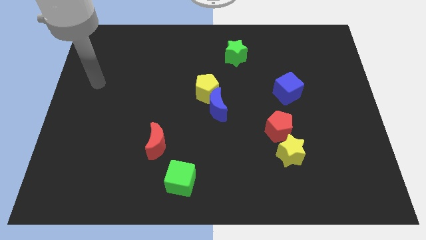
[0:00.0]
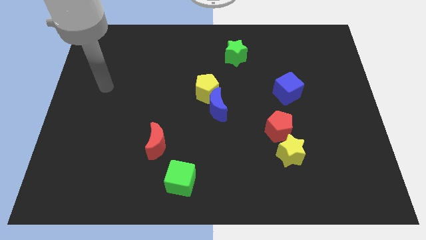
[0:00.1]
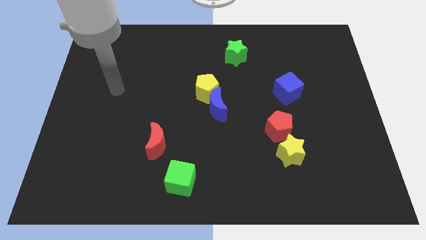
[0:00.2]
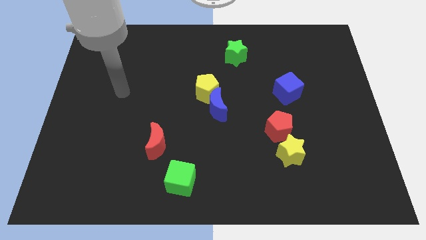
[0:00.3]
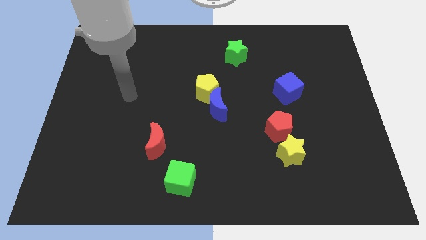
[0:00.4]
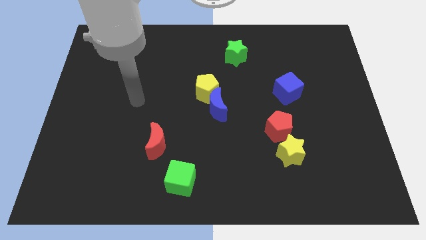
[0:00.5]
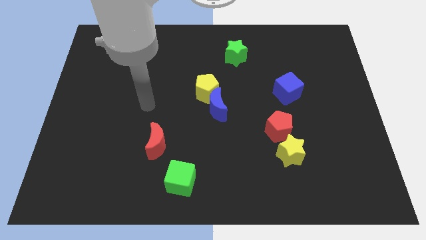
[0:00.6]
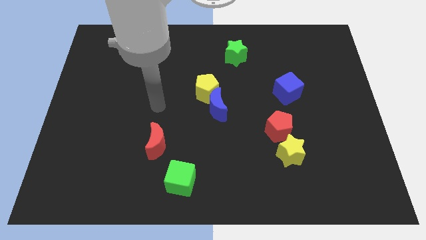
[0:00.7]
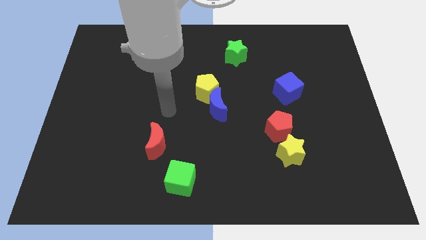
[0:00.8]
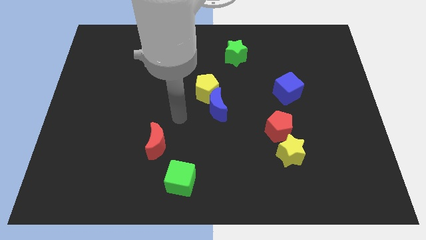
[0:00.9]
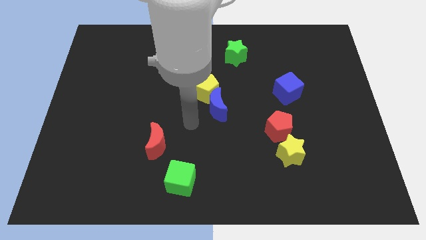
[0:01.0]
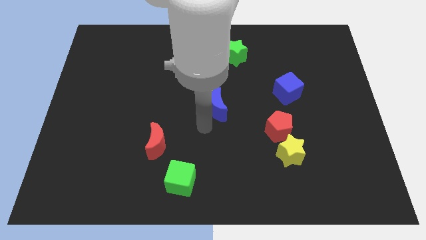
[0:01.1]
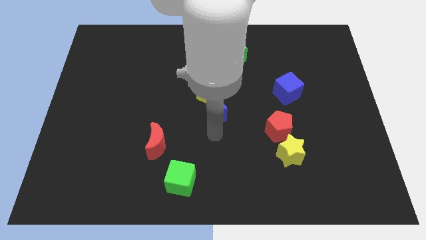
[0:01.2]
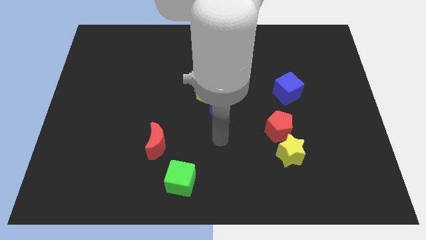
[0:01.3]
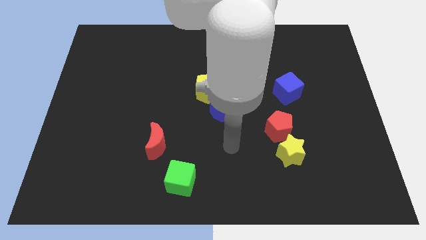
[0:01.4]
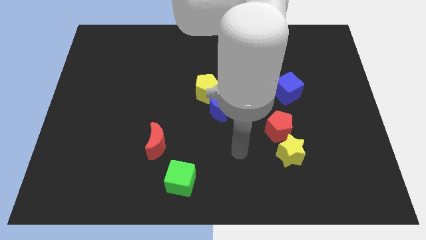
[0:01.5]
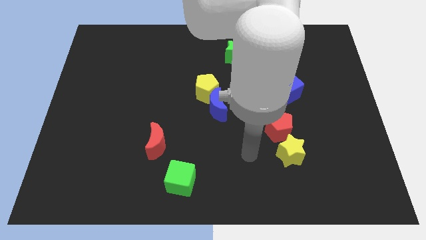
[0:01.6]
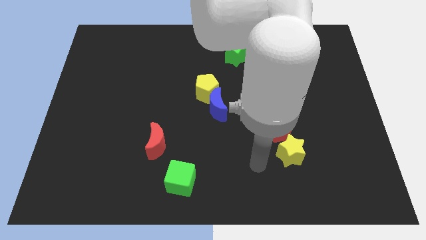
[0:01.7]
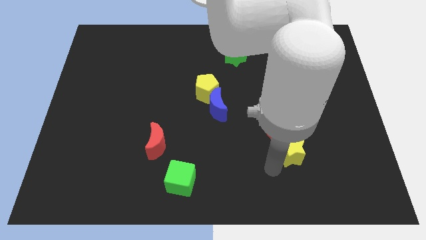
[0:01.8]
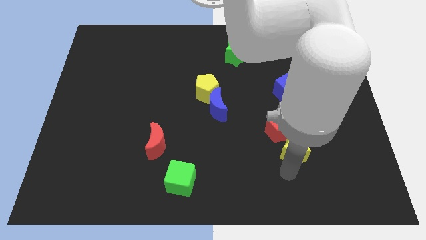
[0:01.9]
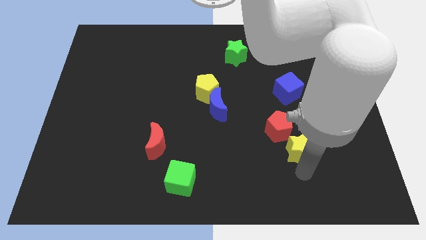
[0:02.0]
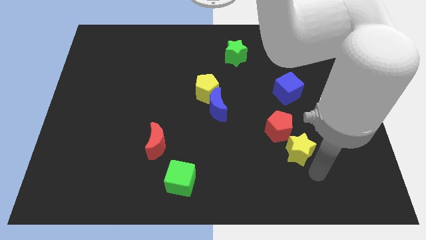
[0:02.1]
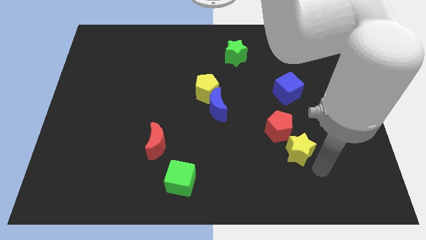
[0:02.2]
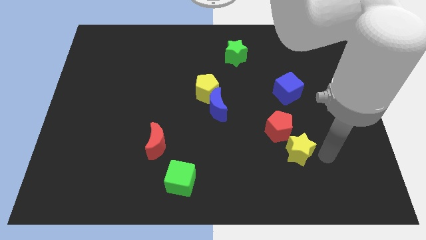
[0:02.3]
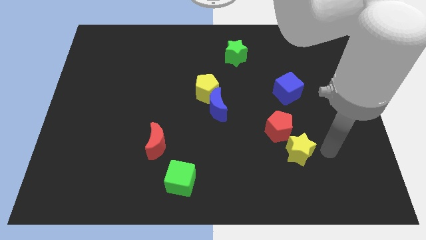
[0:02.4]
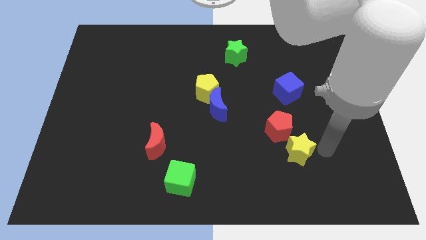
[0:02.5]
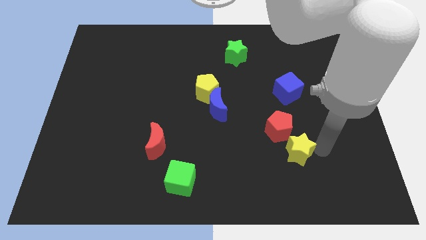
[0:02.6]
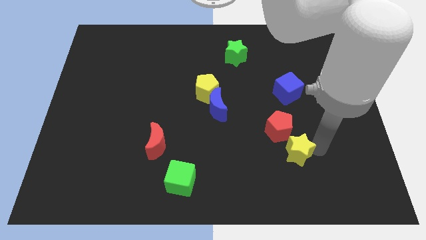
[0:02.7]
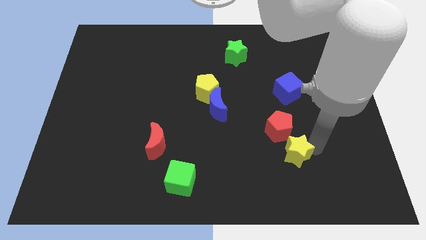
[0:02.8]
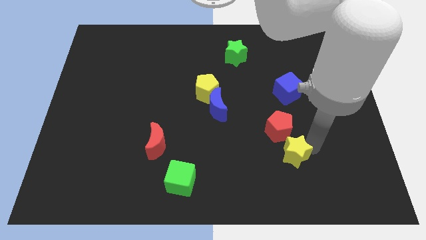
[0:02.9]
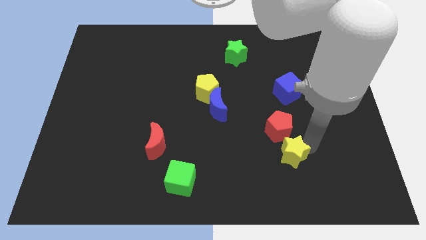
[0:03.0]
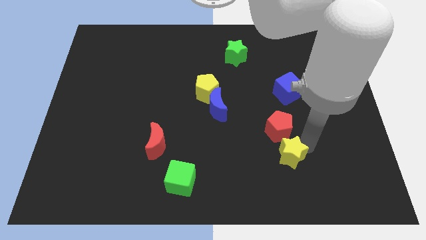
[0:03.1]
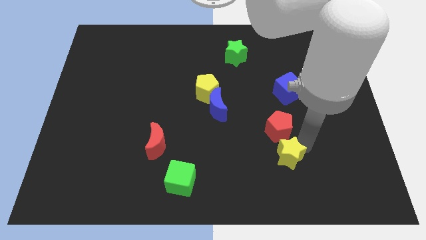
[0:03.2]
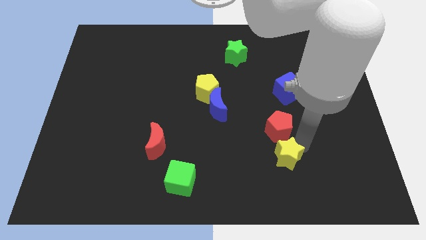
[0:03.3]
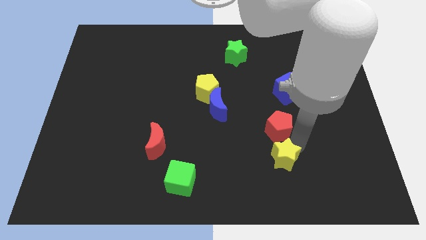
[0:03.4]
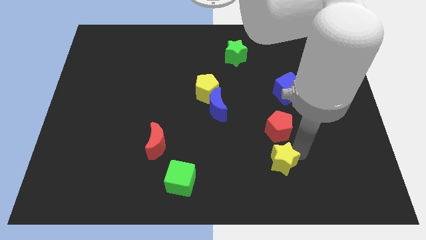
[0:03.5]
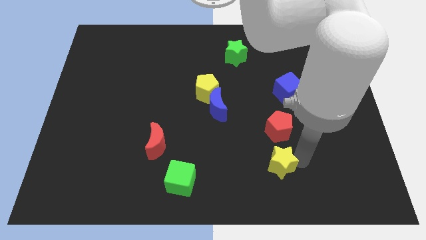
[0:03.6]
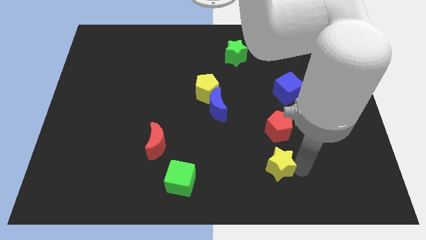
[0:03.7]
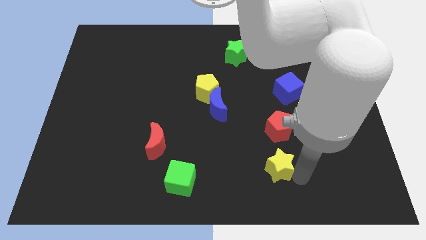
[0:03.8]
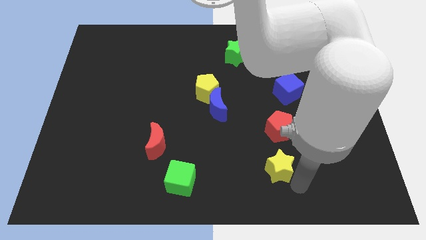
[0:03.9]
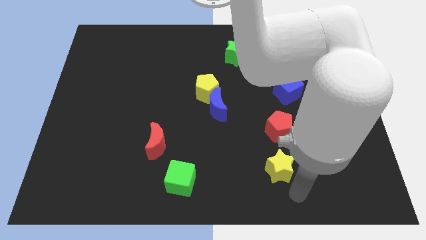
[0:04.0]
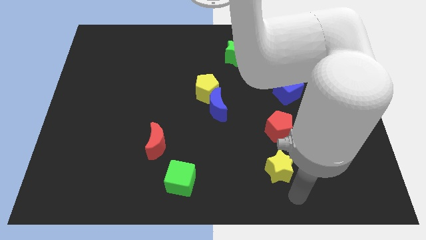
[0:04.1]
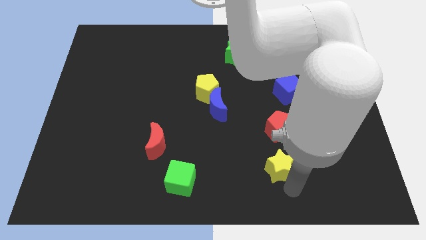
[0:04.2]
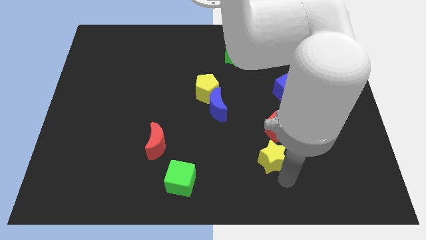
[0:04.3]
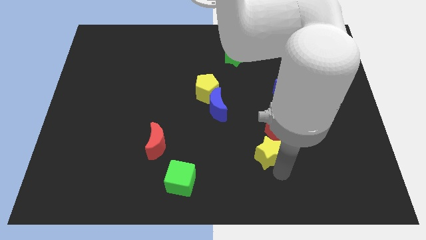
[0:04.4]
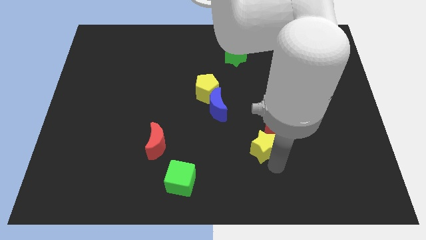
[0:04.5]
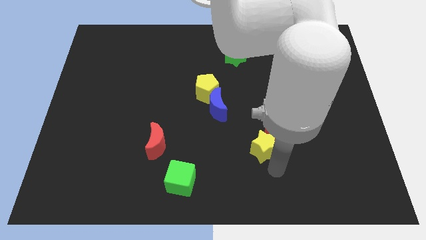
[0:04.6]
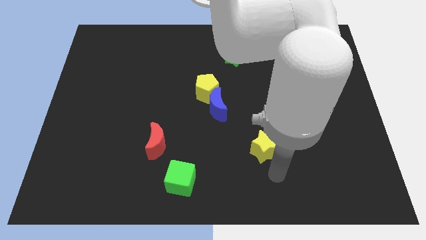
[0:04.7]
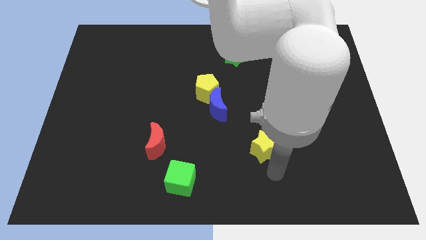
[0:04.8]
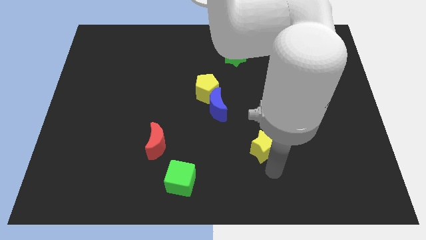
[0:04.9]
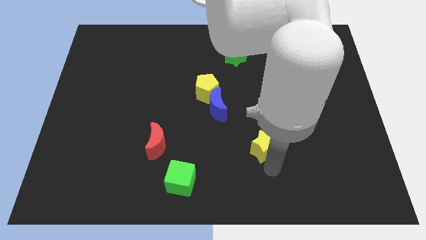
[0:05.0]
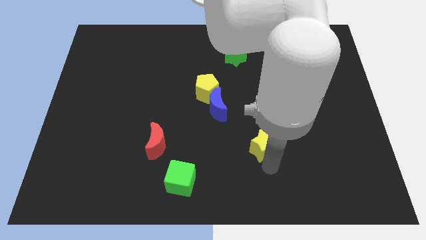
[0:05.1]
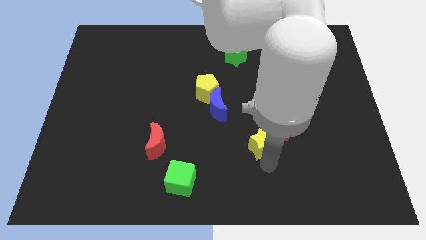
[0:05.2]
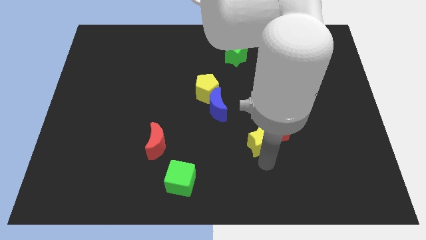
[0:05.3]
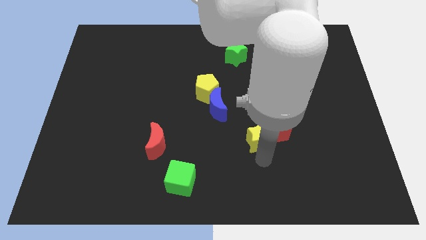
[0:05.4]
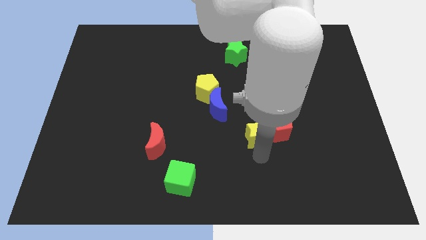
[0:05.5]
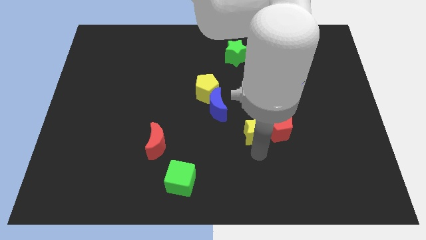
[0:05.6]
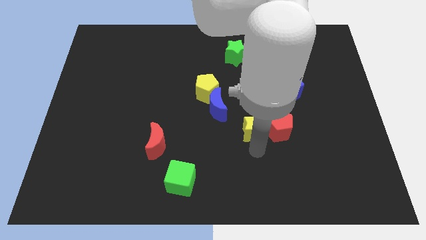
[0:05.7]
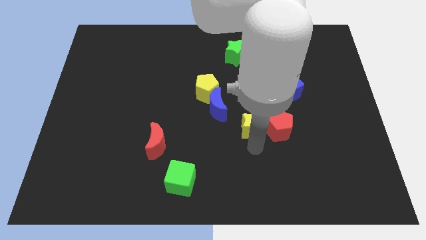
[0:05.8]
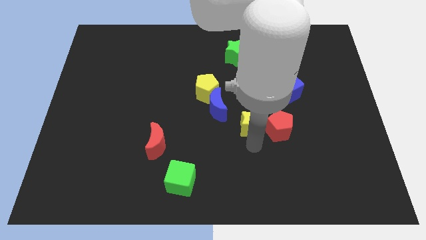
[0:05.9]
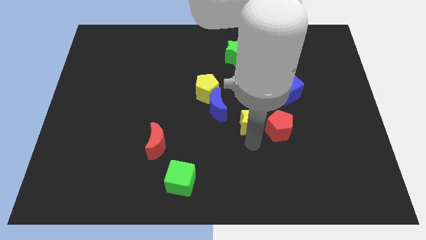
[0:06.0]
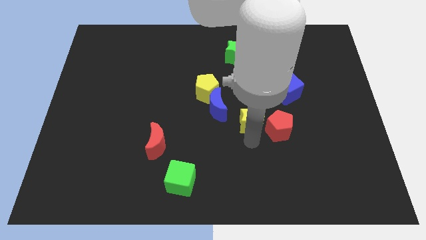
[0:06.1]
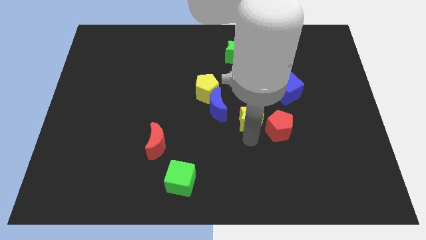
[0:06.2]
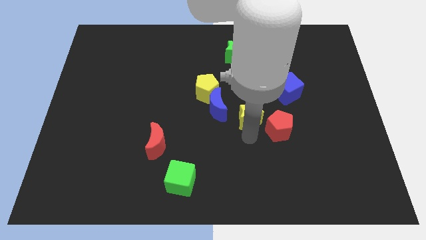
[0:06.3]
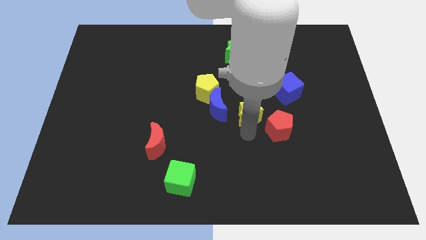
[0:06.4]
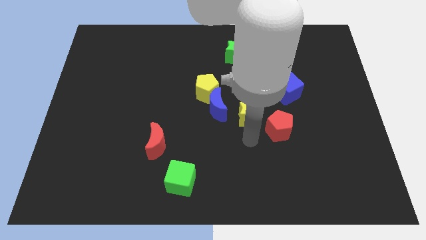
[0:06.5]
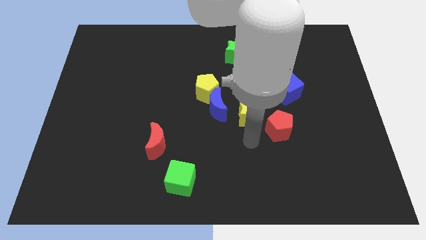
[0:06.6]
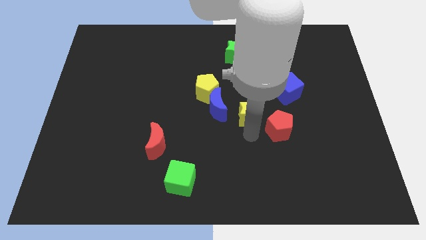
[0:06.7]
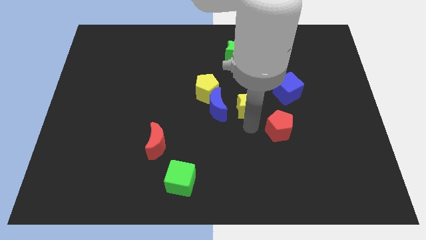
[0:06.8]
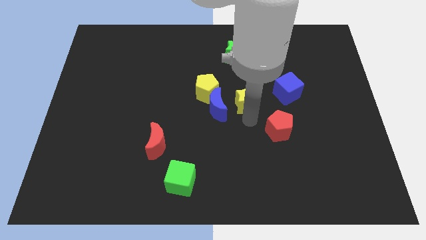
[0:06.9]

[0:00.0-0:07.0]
put the yellow star right of the yellow pentagon

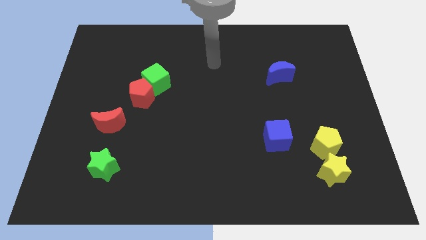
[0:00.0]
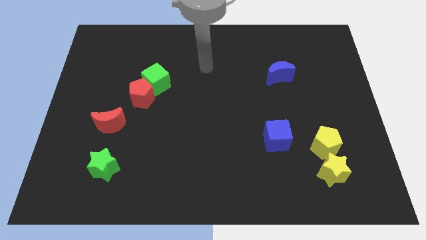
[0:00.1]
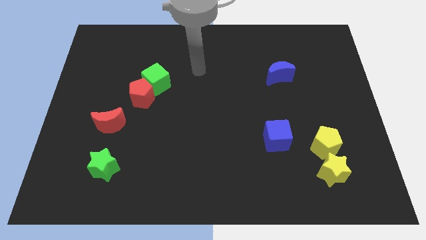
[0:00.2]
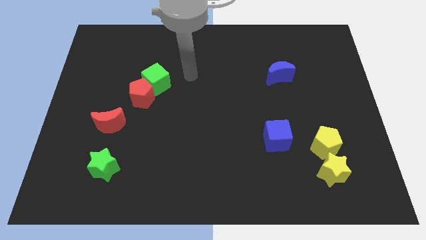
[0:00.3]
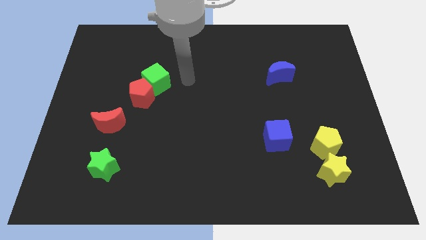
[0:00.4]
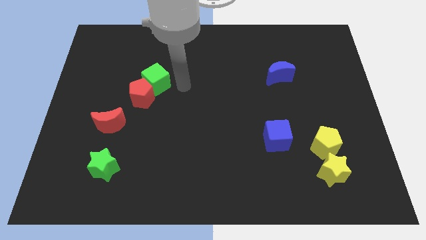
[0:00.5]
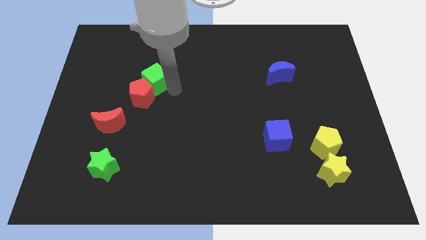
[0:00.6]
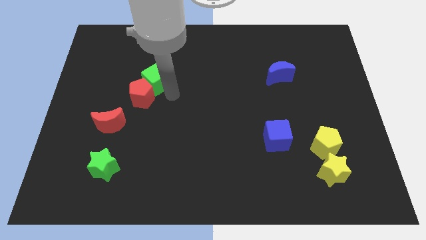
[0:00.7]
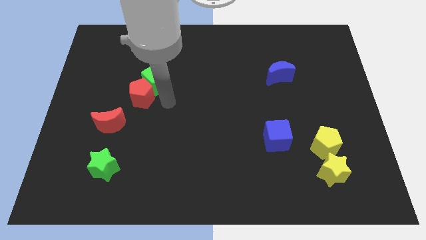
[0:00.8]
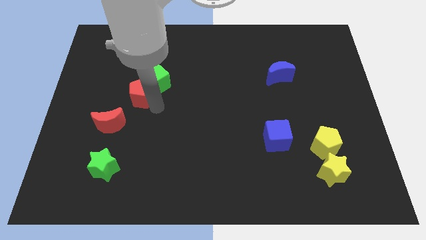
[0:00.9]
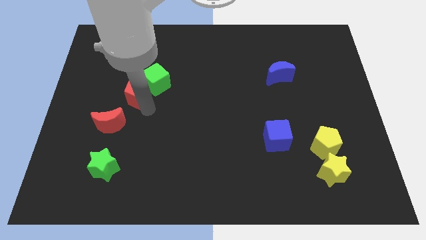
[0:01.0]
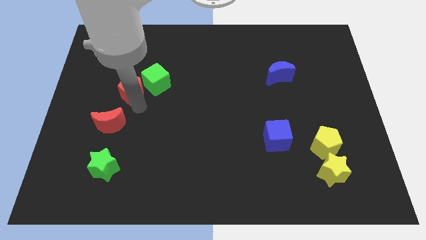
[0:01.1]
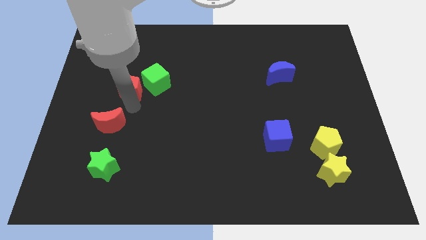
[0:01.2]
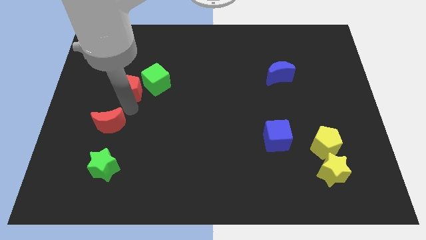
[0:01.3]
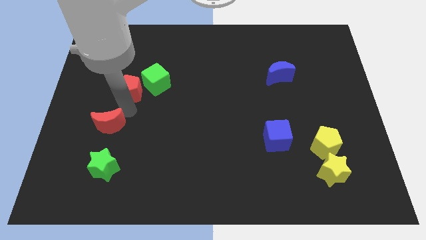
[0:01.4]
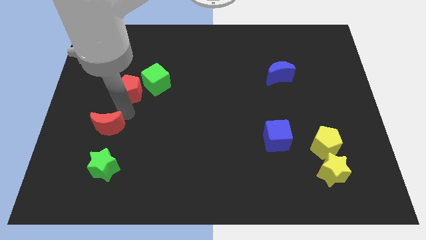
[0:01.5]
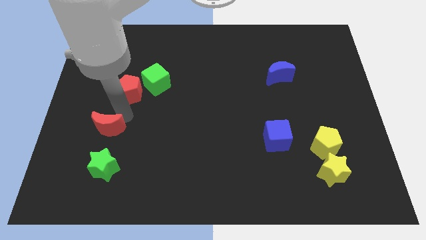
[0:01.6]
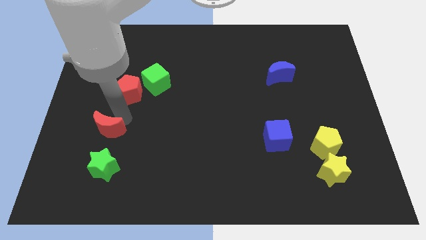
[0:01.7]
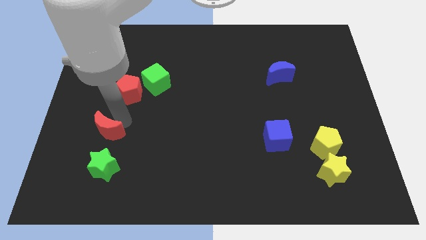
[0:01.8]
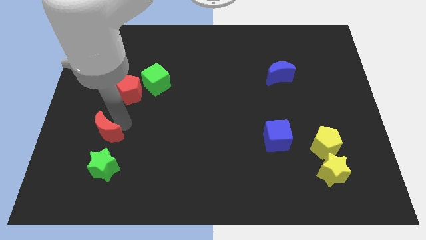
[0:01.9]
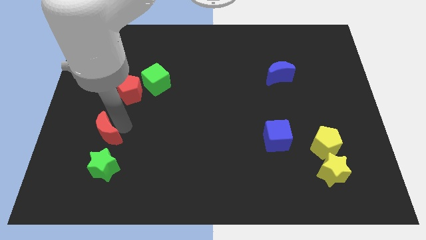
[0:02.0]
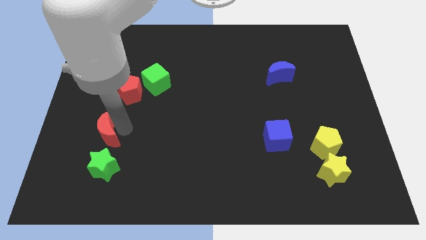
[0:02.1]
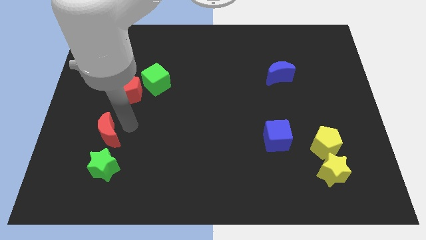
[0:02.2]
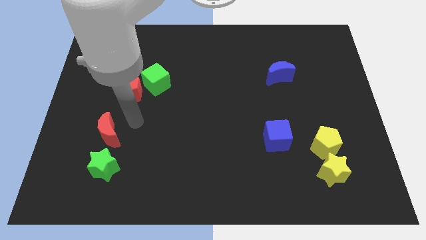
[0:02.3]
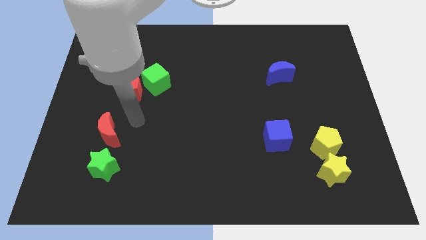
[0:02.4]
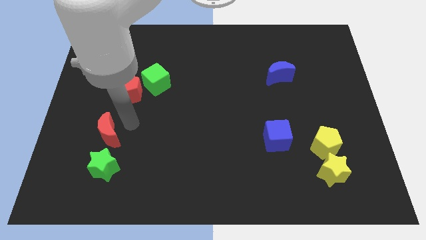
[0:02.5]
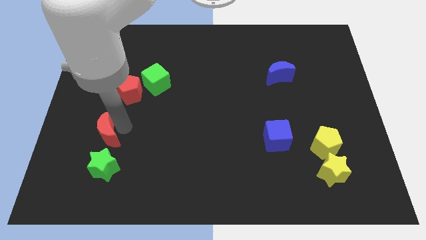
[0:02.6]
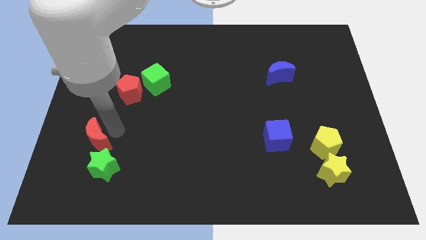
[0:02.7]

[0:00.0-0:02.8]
move the red moon to the top left of the green star
